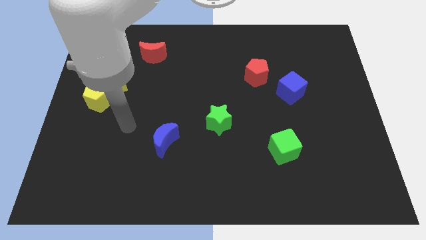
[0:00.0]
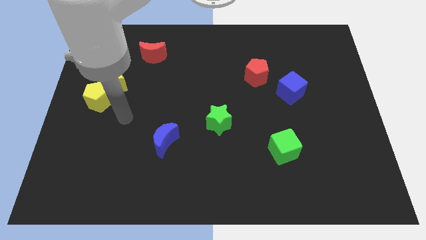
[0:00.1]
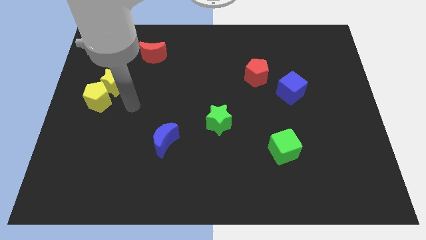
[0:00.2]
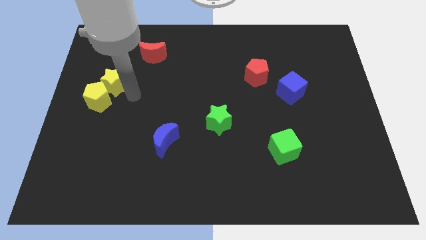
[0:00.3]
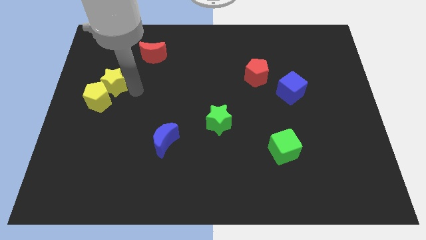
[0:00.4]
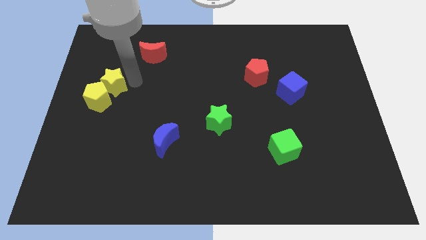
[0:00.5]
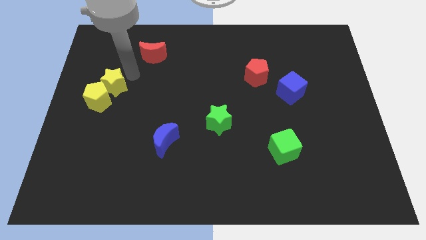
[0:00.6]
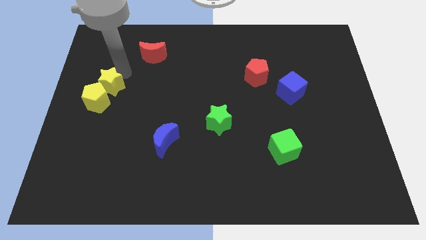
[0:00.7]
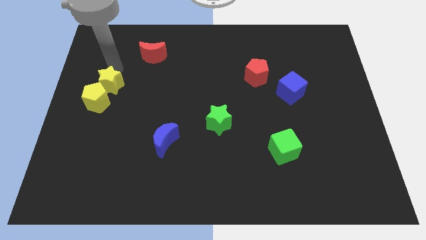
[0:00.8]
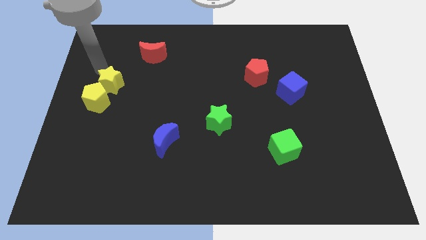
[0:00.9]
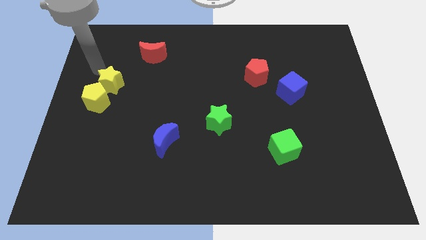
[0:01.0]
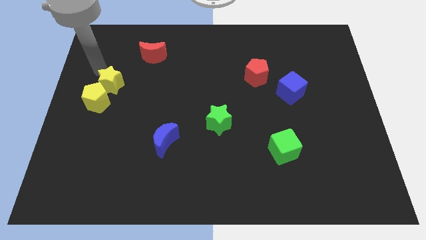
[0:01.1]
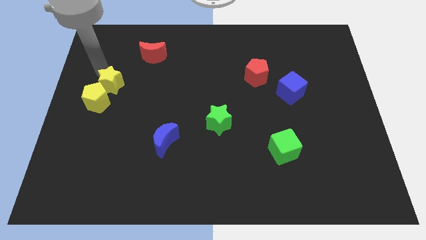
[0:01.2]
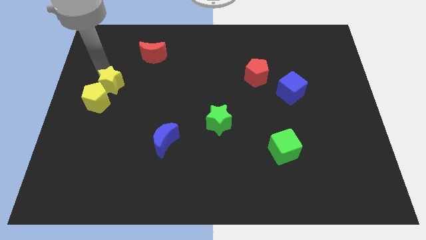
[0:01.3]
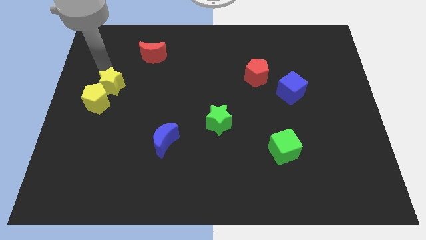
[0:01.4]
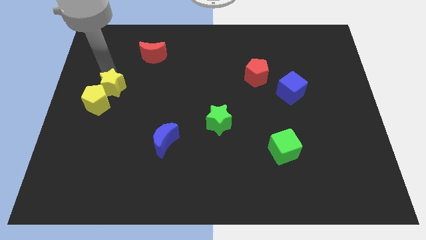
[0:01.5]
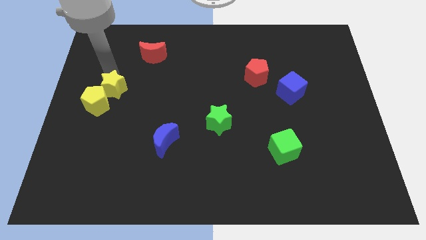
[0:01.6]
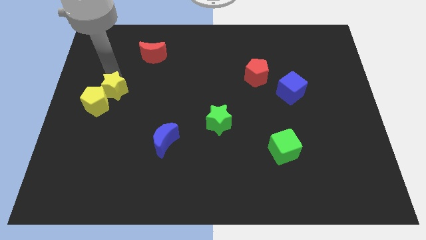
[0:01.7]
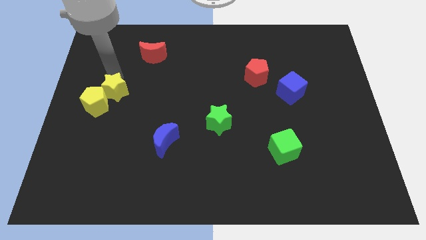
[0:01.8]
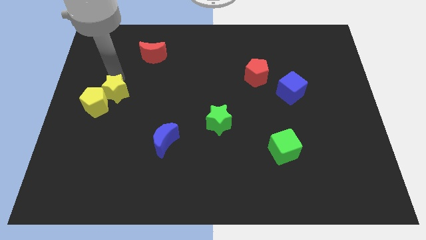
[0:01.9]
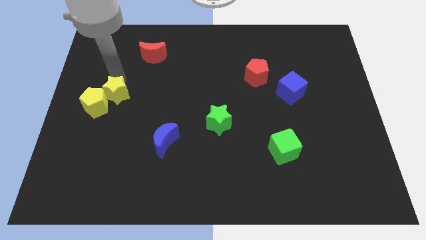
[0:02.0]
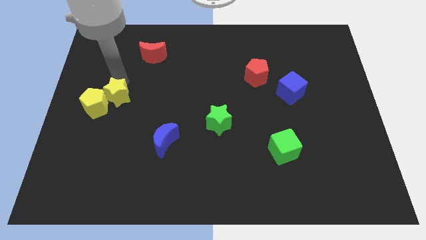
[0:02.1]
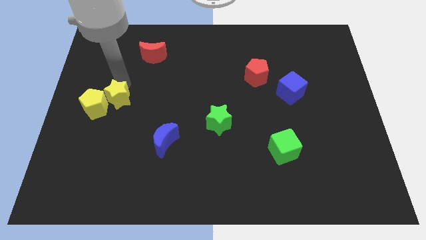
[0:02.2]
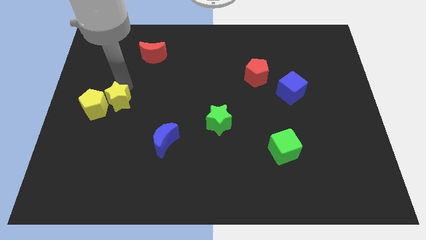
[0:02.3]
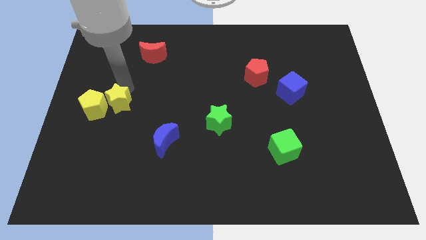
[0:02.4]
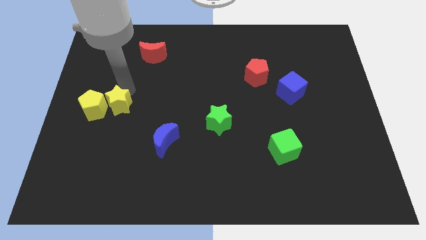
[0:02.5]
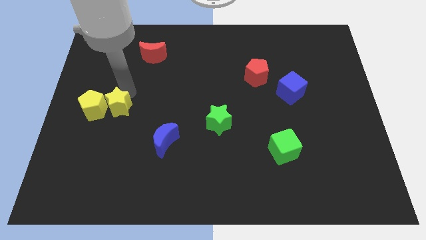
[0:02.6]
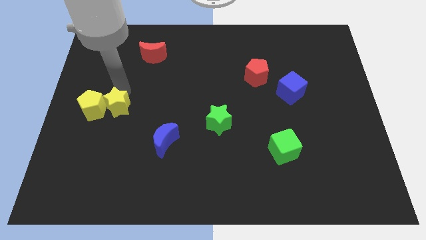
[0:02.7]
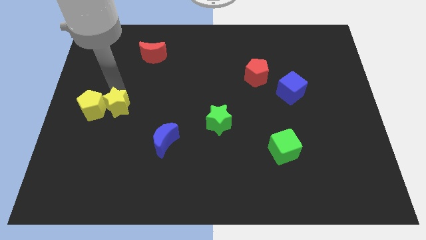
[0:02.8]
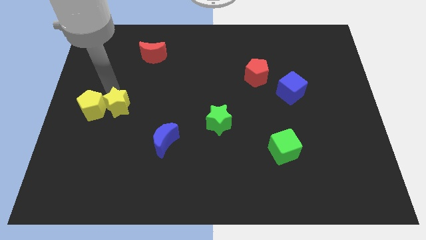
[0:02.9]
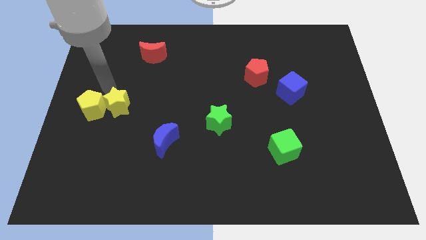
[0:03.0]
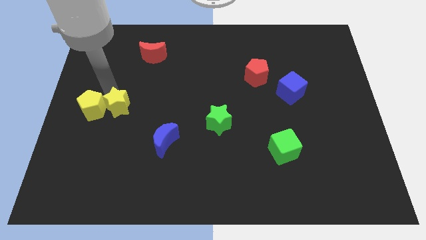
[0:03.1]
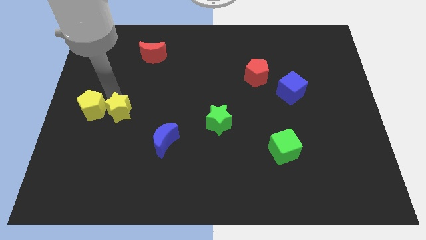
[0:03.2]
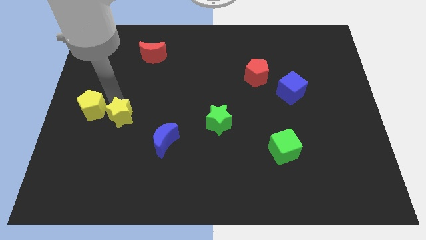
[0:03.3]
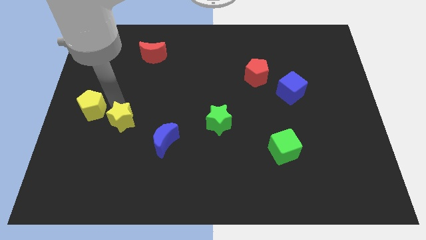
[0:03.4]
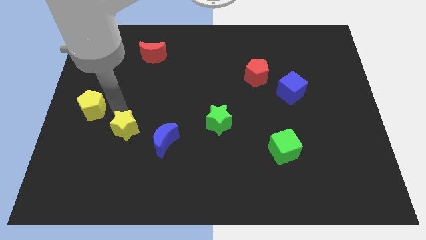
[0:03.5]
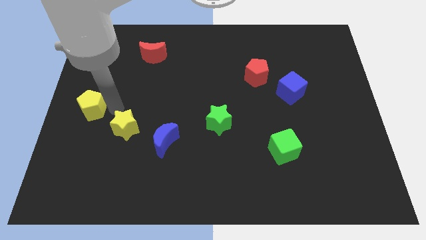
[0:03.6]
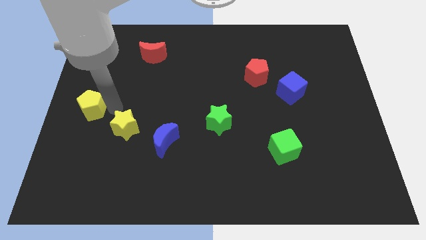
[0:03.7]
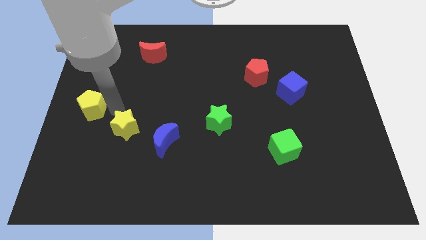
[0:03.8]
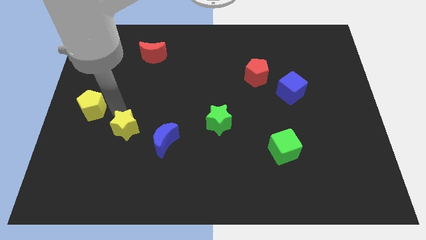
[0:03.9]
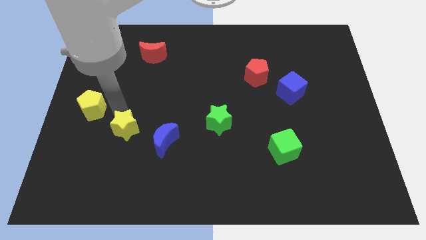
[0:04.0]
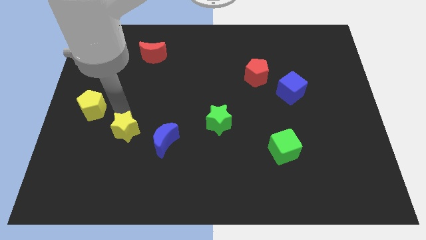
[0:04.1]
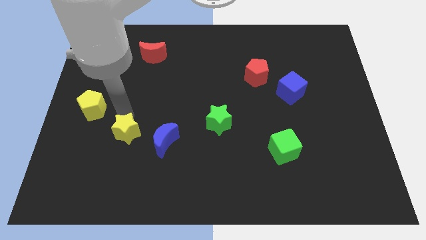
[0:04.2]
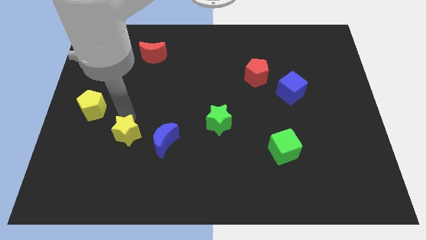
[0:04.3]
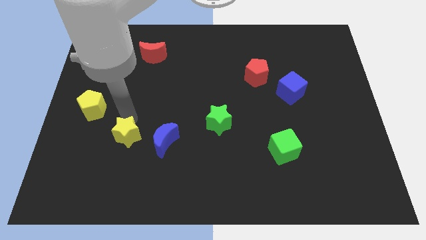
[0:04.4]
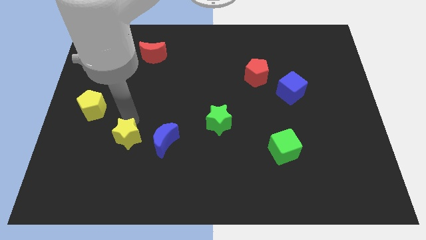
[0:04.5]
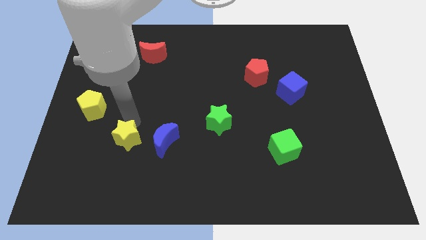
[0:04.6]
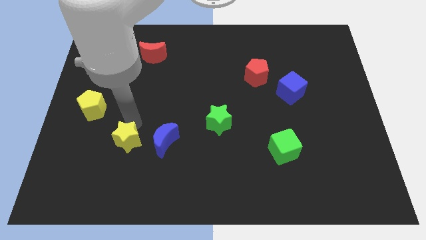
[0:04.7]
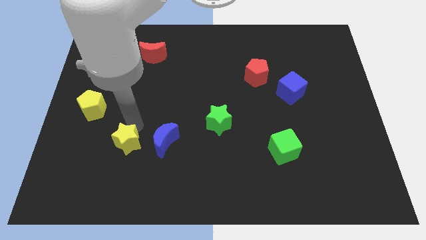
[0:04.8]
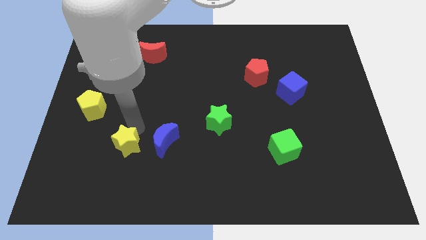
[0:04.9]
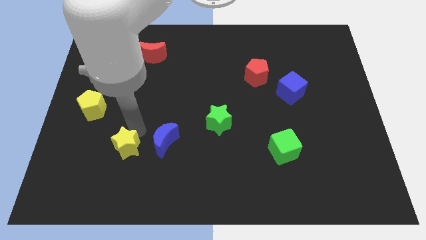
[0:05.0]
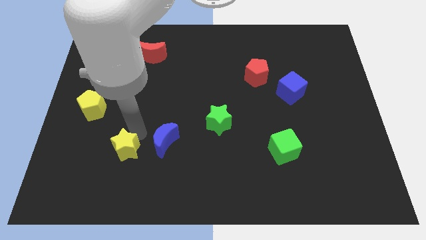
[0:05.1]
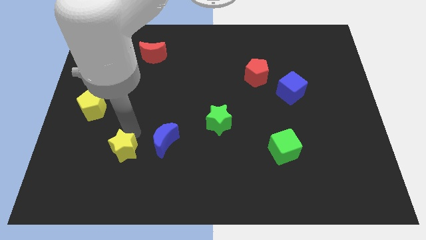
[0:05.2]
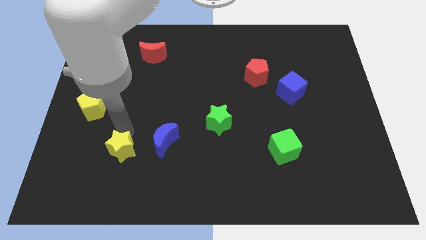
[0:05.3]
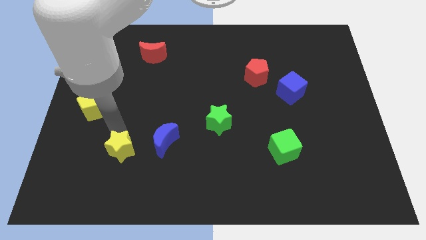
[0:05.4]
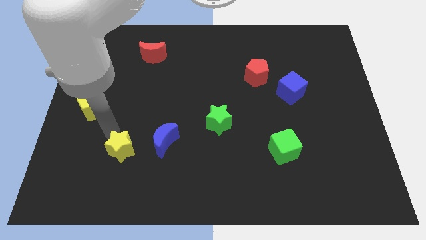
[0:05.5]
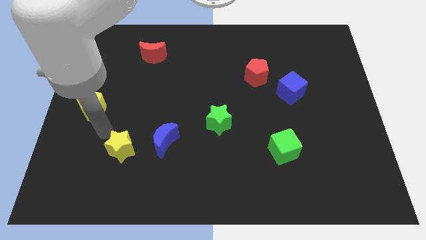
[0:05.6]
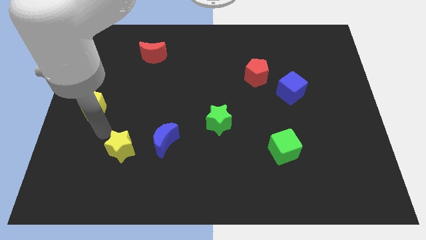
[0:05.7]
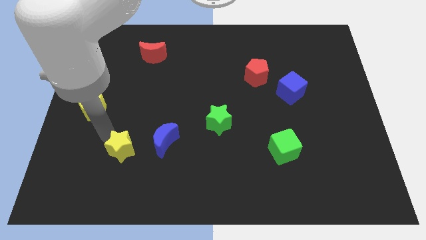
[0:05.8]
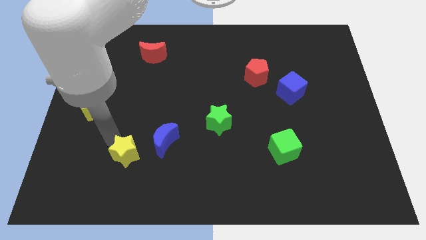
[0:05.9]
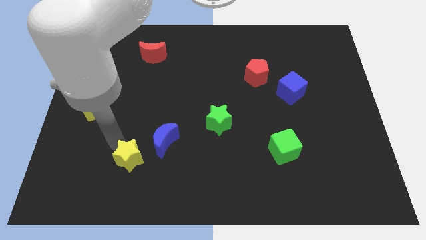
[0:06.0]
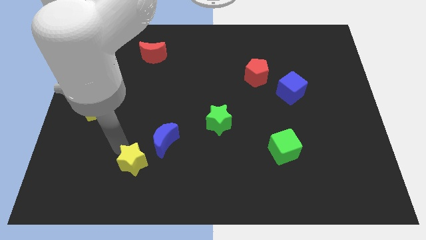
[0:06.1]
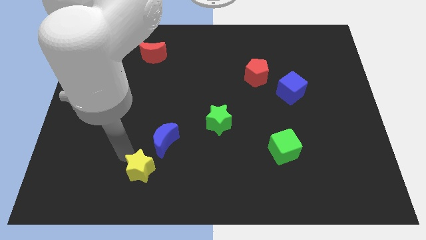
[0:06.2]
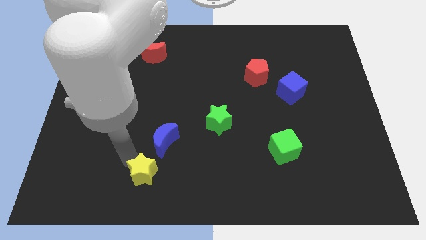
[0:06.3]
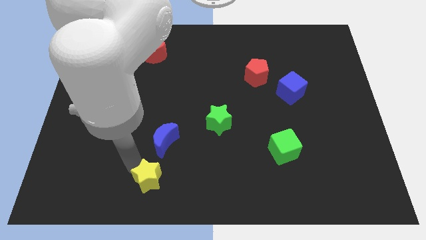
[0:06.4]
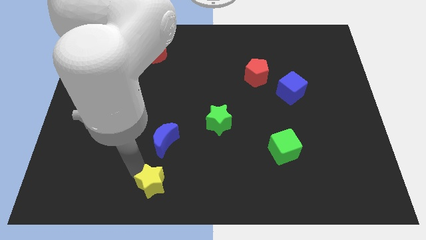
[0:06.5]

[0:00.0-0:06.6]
put the yellow star to the bottom

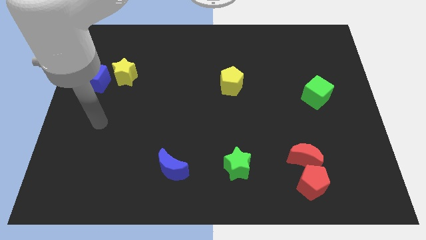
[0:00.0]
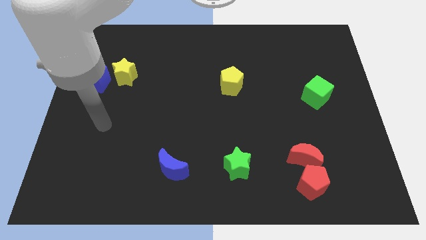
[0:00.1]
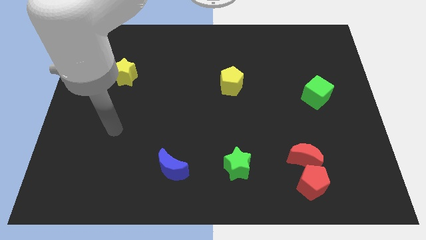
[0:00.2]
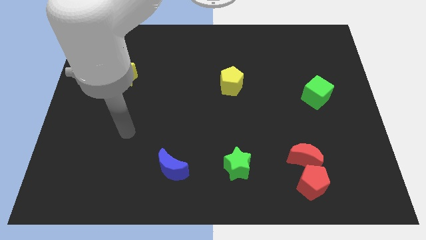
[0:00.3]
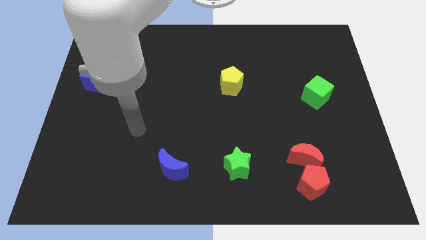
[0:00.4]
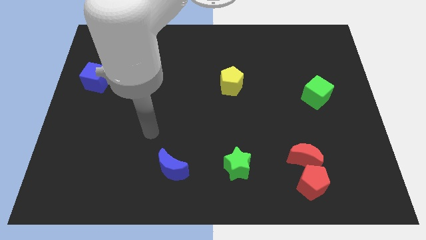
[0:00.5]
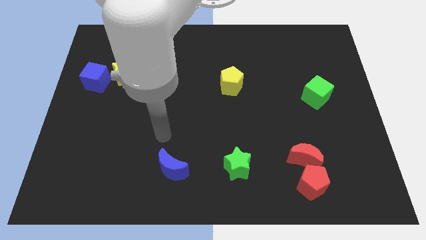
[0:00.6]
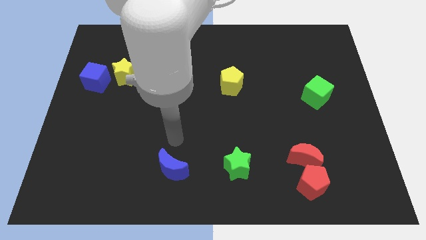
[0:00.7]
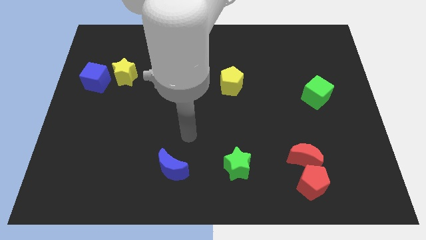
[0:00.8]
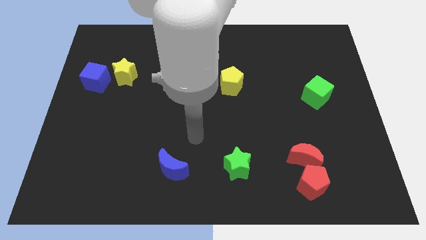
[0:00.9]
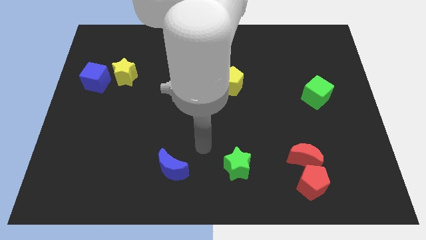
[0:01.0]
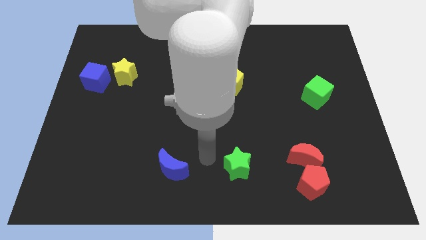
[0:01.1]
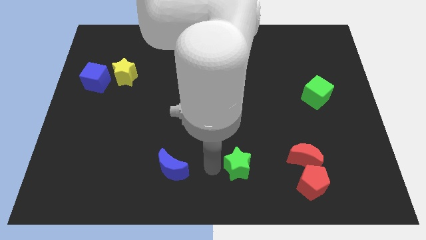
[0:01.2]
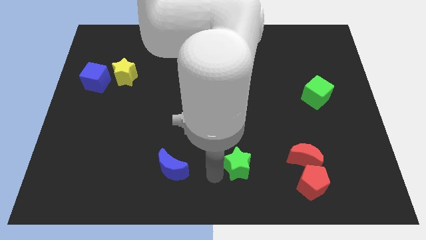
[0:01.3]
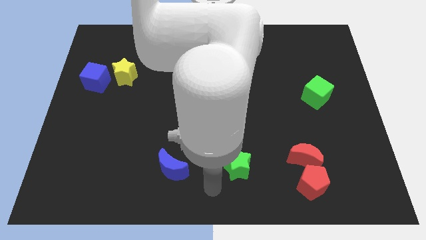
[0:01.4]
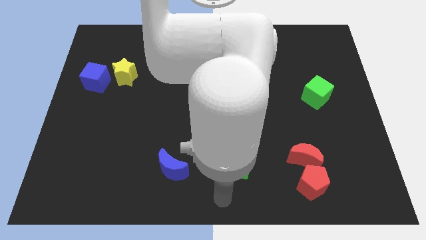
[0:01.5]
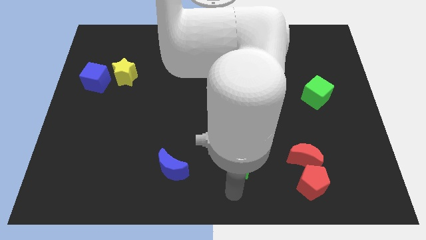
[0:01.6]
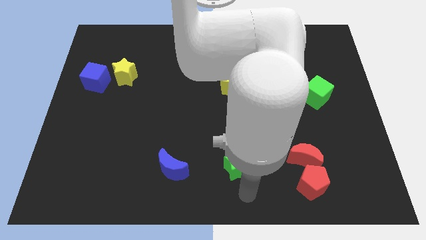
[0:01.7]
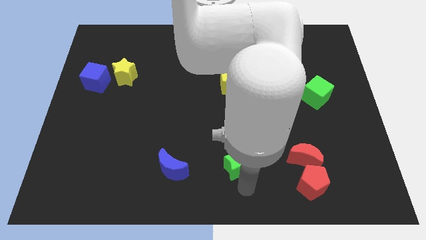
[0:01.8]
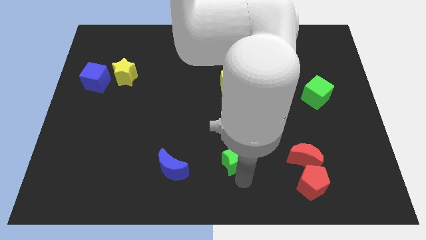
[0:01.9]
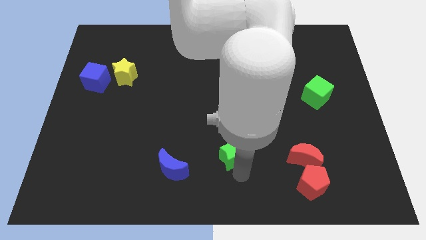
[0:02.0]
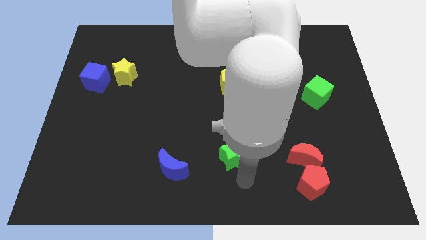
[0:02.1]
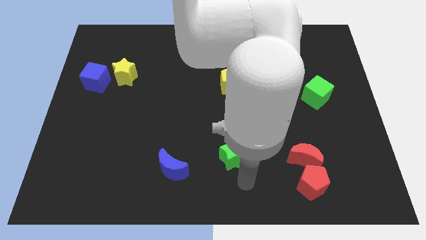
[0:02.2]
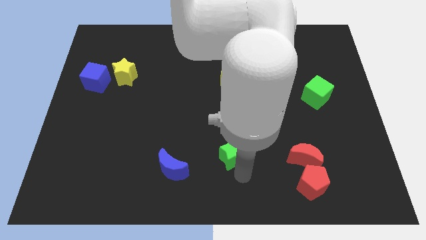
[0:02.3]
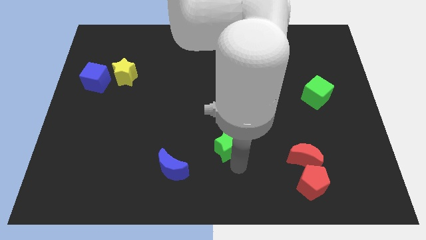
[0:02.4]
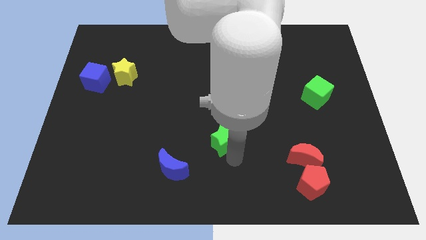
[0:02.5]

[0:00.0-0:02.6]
push the green star to the middle
